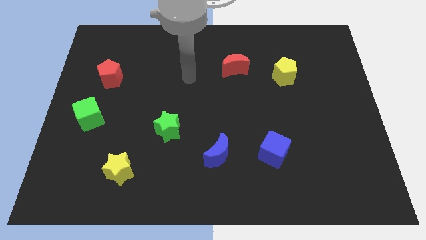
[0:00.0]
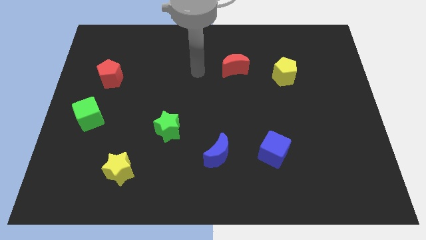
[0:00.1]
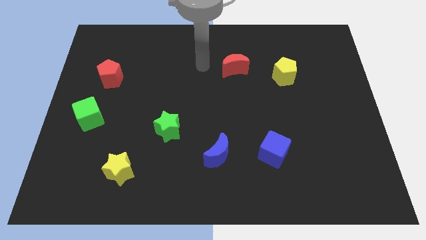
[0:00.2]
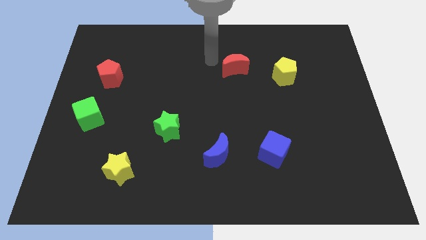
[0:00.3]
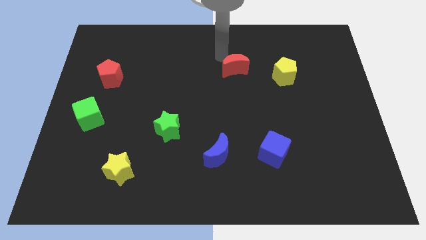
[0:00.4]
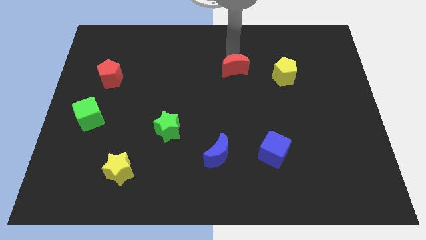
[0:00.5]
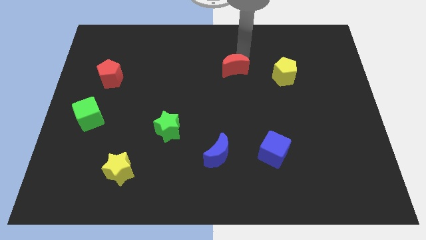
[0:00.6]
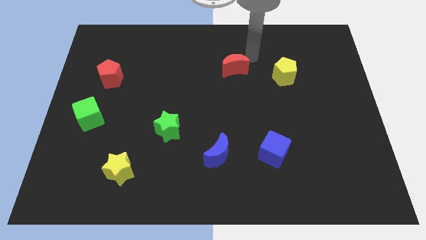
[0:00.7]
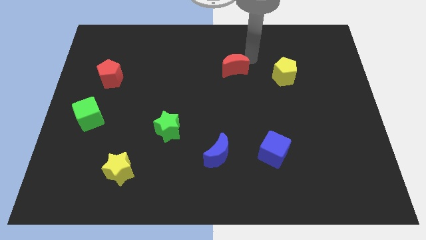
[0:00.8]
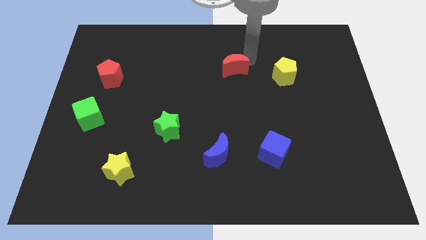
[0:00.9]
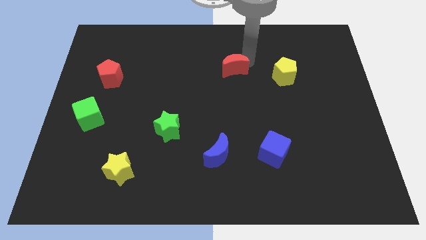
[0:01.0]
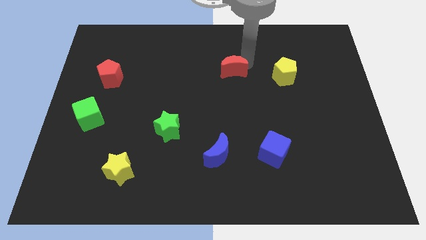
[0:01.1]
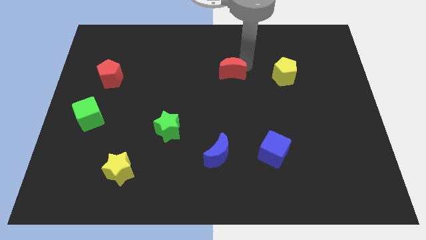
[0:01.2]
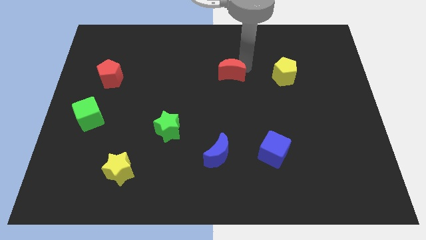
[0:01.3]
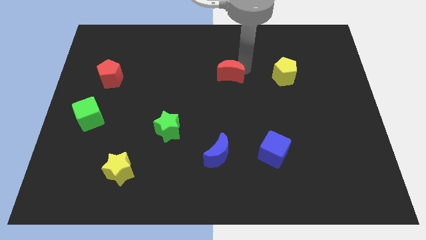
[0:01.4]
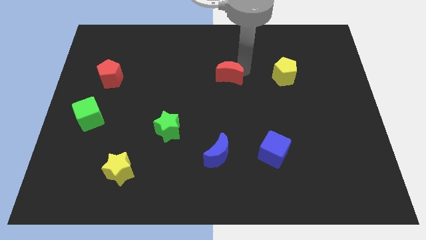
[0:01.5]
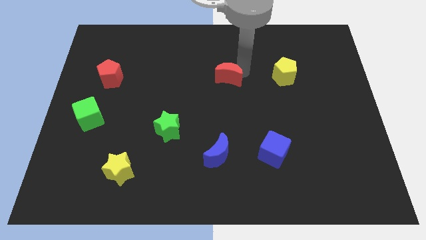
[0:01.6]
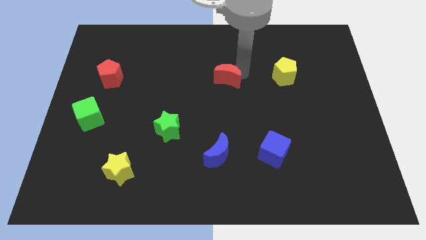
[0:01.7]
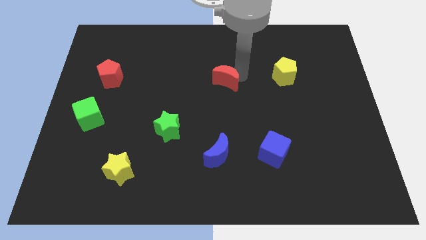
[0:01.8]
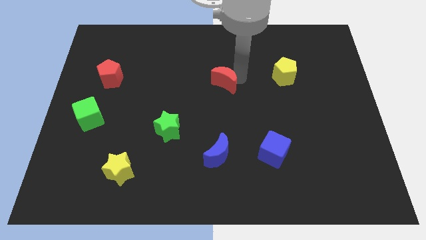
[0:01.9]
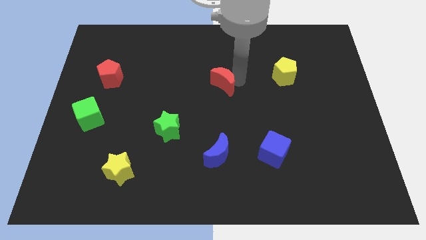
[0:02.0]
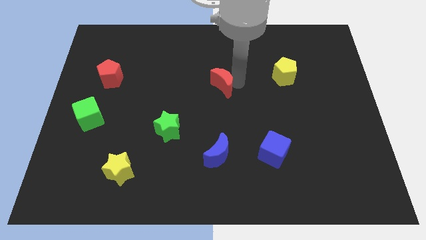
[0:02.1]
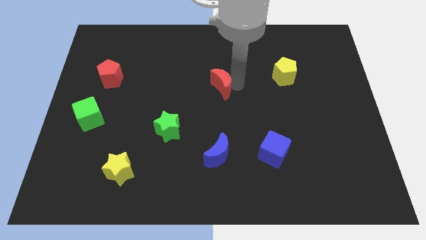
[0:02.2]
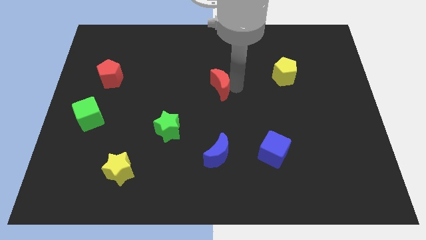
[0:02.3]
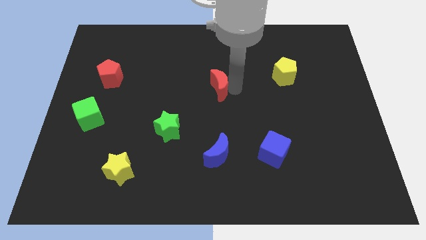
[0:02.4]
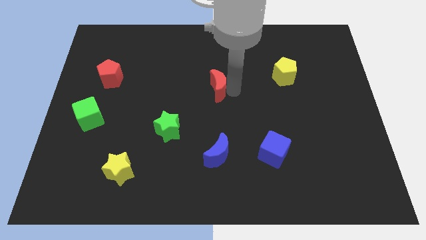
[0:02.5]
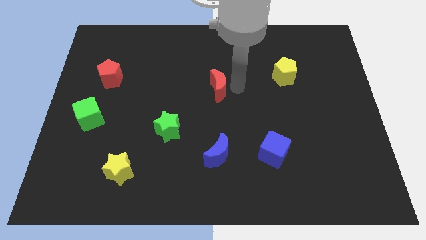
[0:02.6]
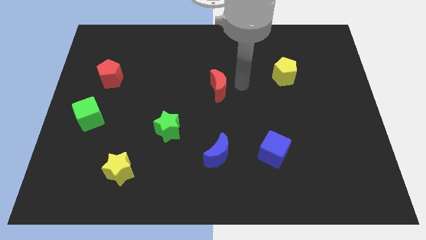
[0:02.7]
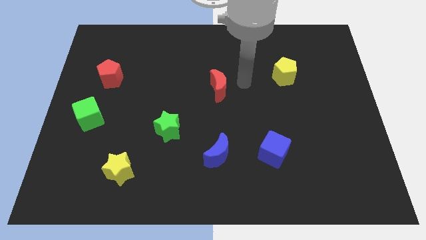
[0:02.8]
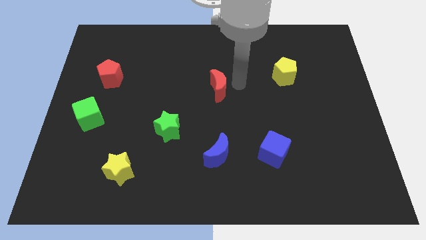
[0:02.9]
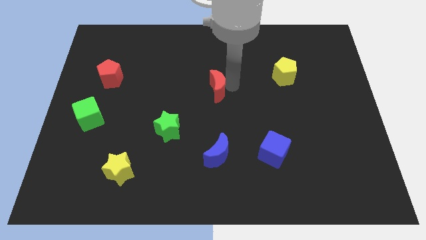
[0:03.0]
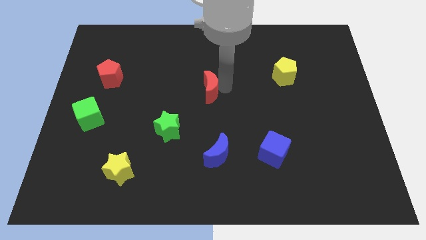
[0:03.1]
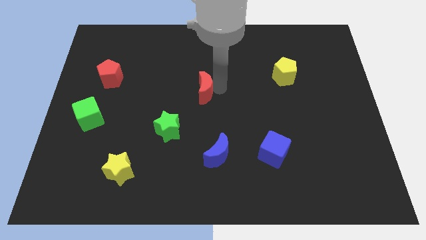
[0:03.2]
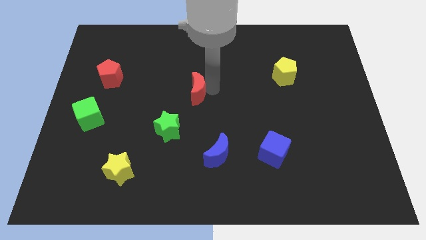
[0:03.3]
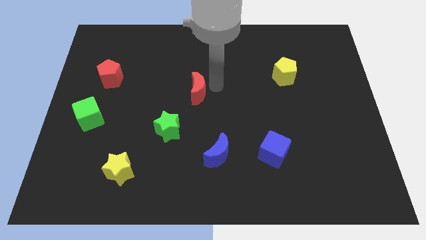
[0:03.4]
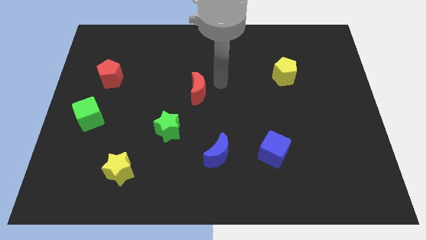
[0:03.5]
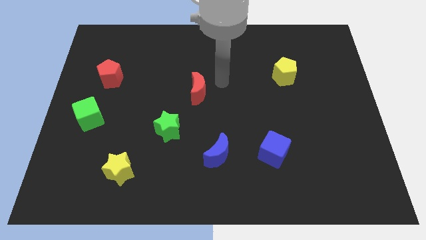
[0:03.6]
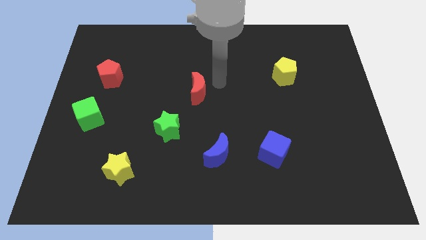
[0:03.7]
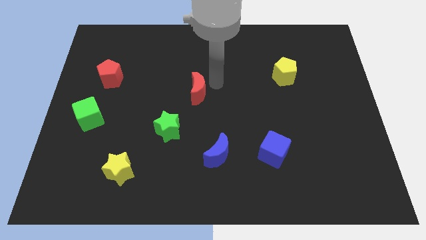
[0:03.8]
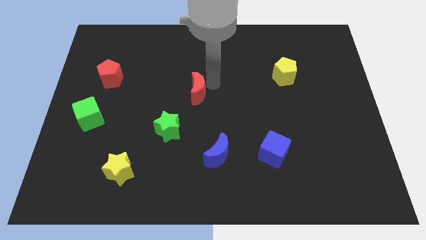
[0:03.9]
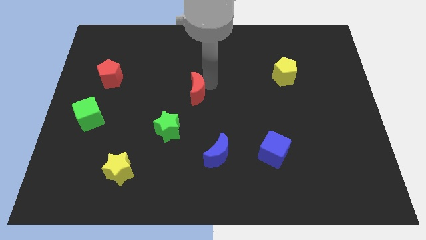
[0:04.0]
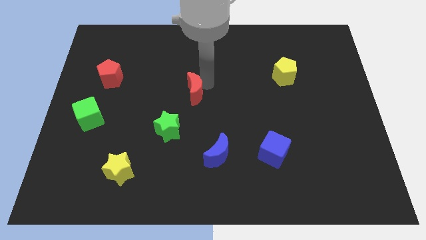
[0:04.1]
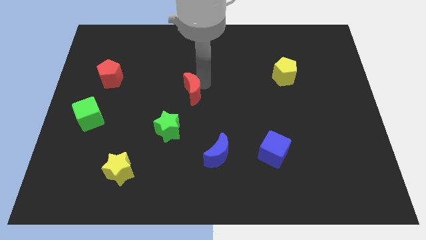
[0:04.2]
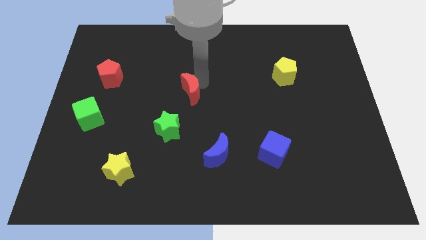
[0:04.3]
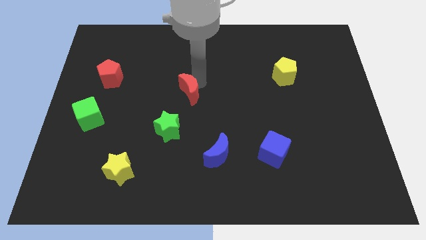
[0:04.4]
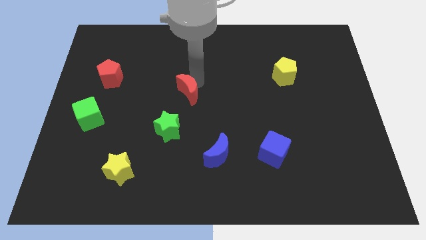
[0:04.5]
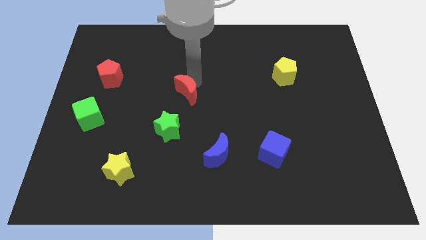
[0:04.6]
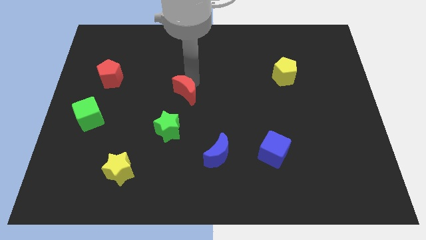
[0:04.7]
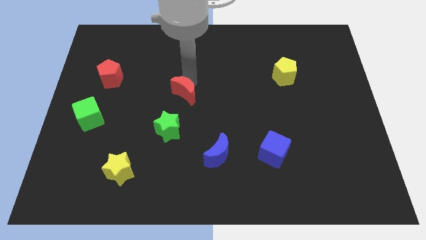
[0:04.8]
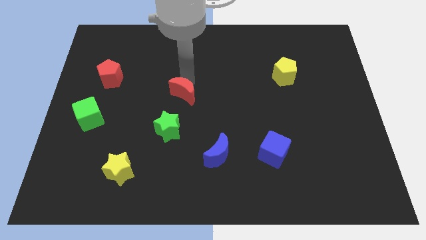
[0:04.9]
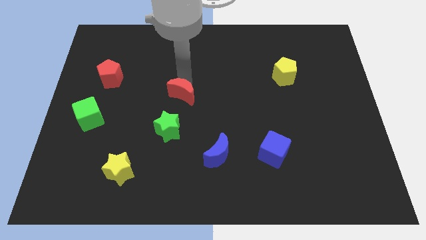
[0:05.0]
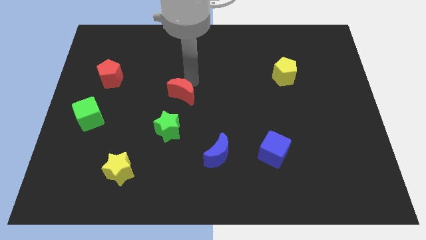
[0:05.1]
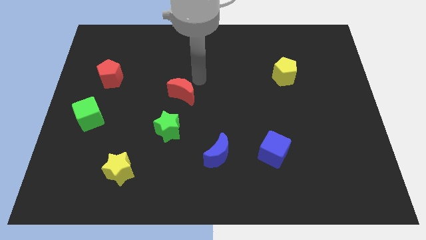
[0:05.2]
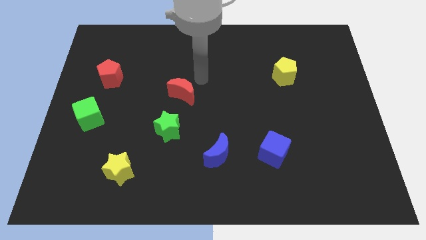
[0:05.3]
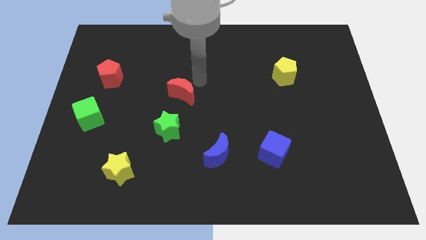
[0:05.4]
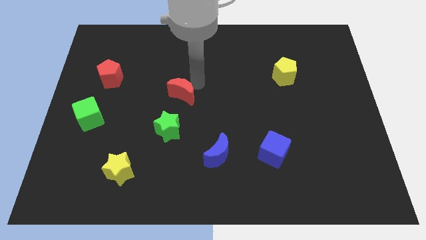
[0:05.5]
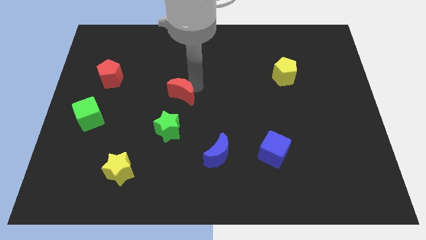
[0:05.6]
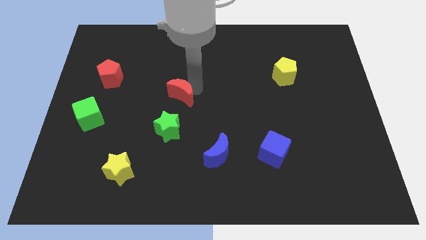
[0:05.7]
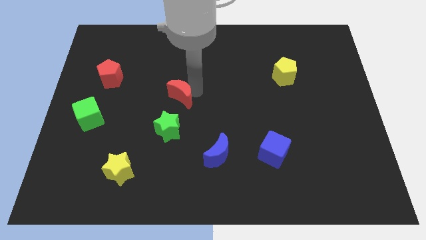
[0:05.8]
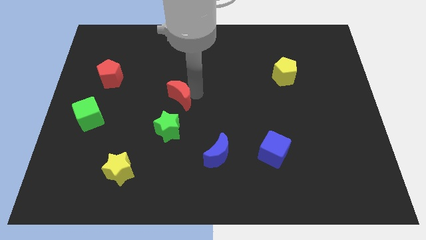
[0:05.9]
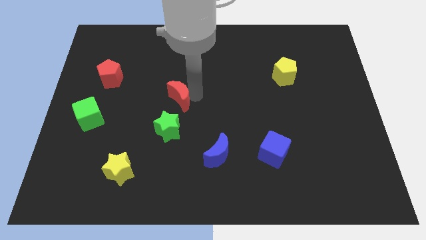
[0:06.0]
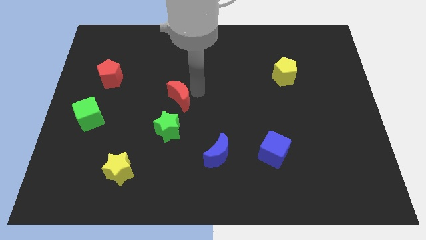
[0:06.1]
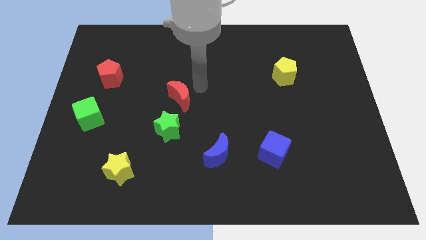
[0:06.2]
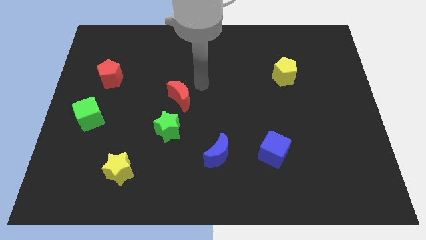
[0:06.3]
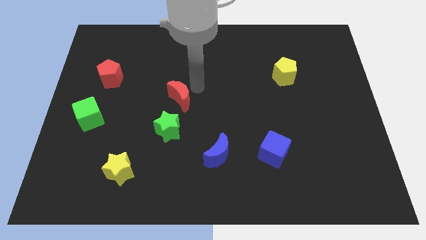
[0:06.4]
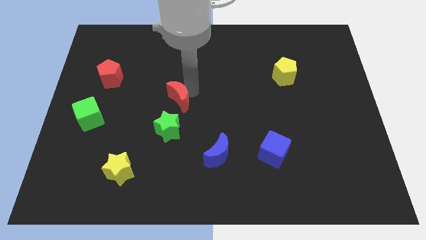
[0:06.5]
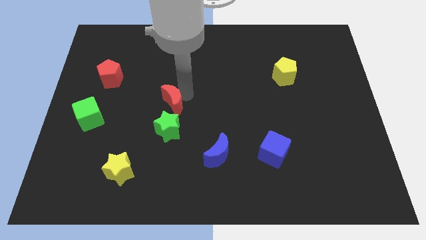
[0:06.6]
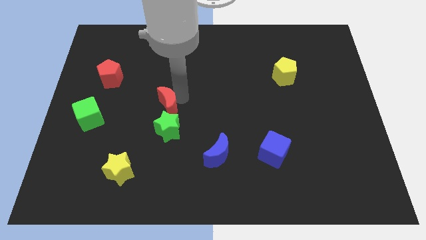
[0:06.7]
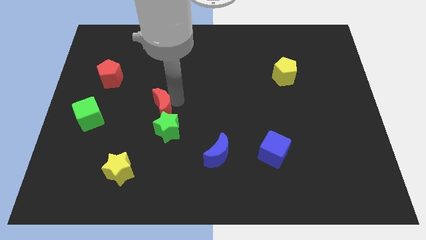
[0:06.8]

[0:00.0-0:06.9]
slide the red moon downwards and then left

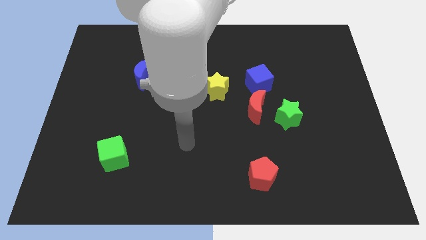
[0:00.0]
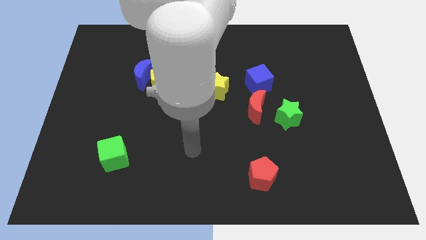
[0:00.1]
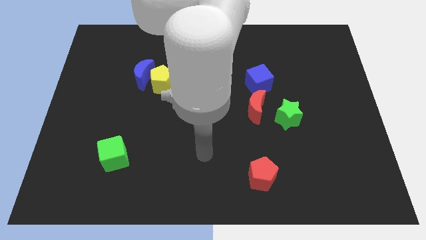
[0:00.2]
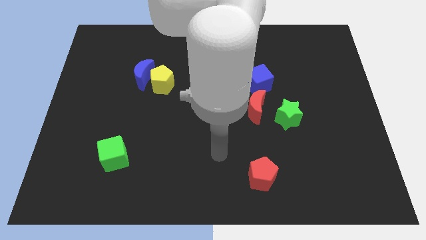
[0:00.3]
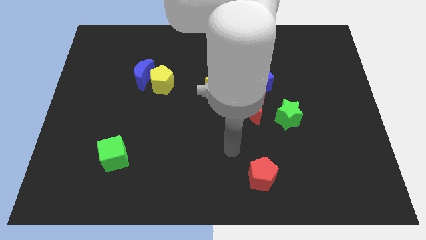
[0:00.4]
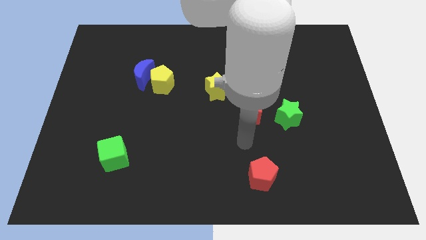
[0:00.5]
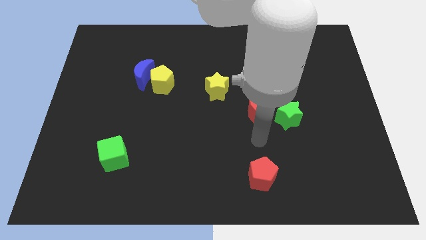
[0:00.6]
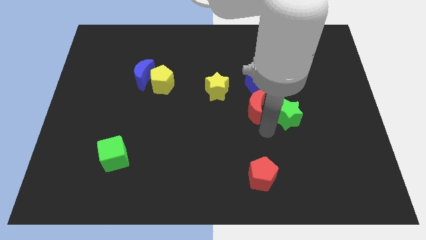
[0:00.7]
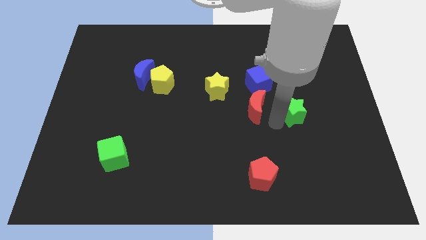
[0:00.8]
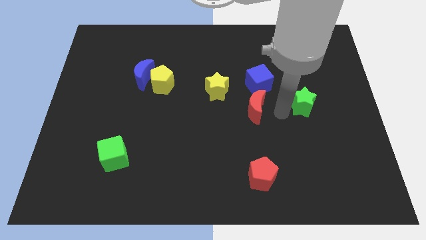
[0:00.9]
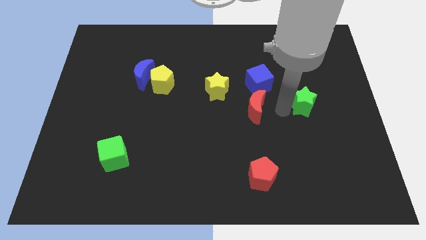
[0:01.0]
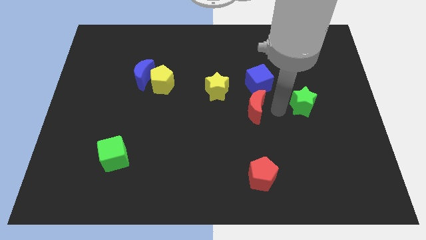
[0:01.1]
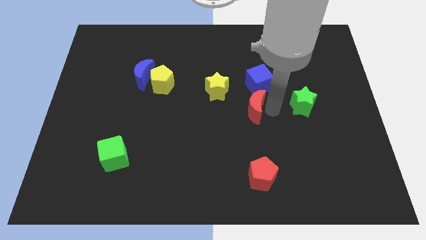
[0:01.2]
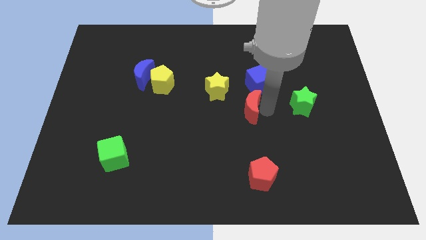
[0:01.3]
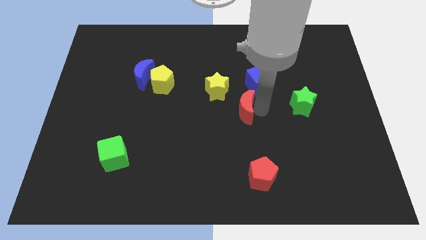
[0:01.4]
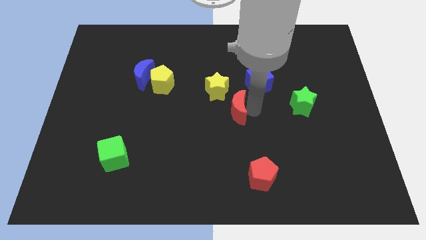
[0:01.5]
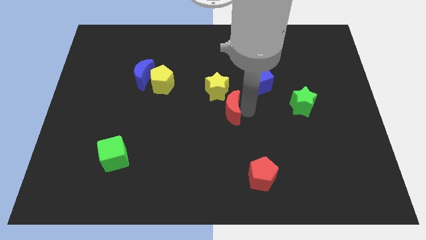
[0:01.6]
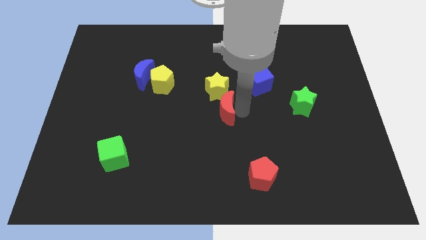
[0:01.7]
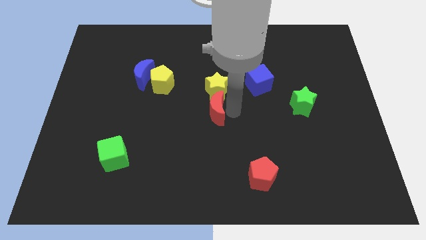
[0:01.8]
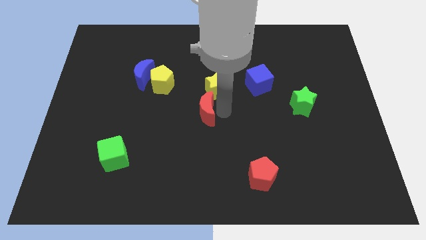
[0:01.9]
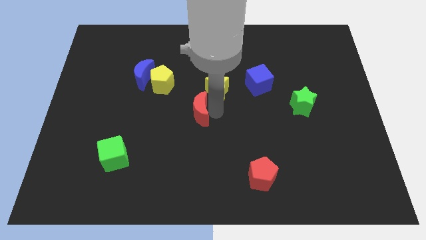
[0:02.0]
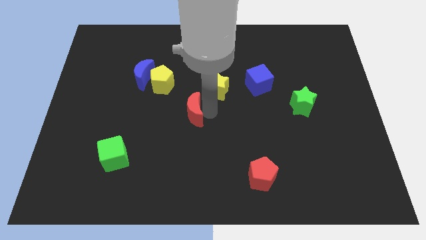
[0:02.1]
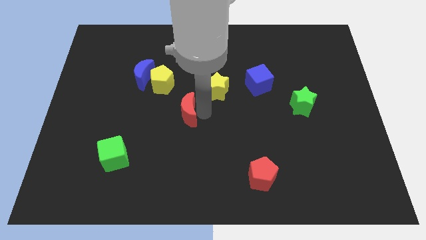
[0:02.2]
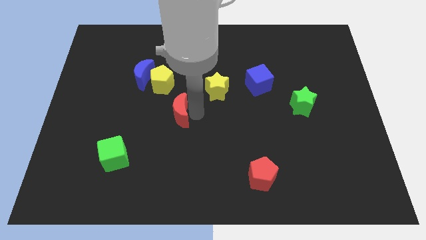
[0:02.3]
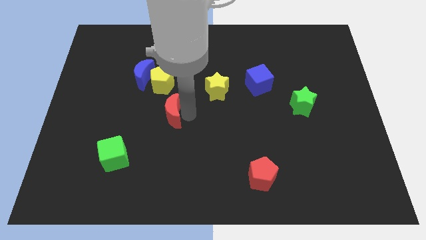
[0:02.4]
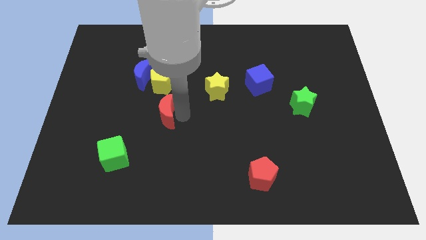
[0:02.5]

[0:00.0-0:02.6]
move the red moon left
